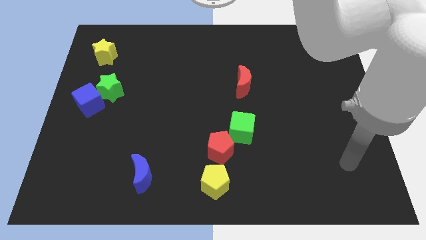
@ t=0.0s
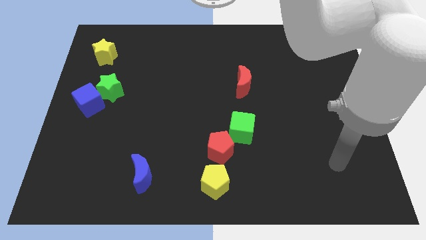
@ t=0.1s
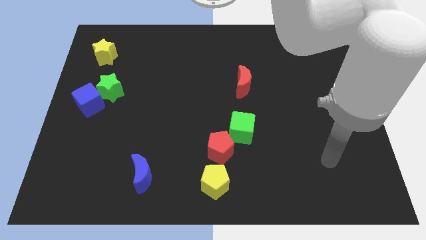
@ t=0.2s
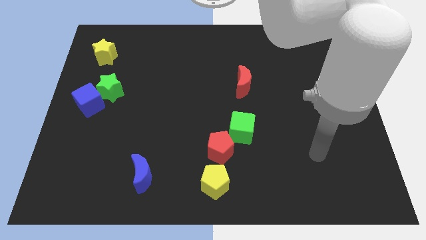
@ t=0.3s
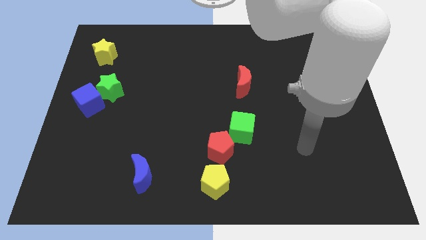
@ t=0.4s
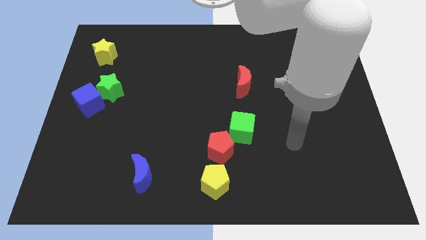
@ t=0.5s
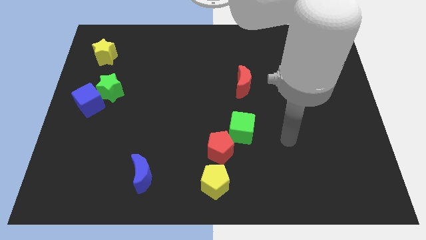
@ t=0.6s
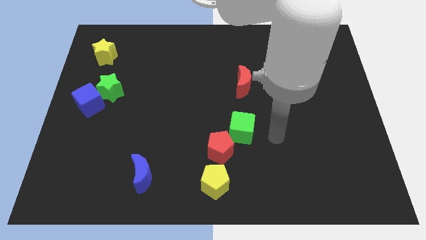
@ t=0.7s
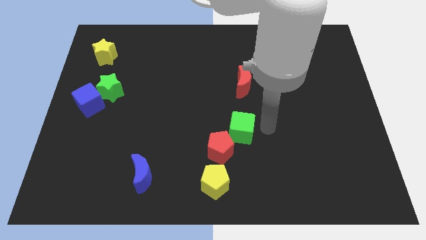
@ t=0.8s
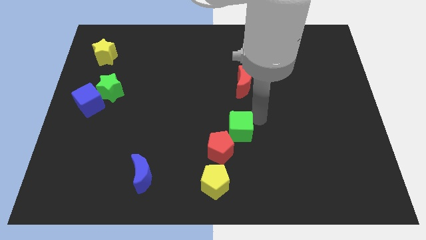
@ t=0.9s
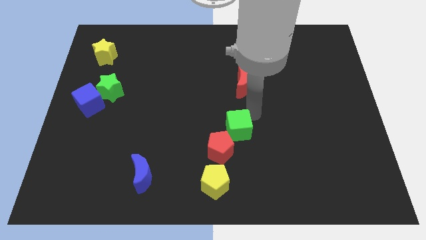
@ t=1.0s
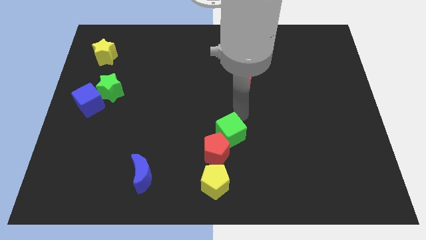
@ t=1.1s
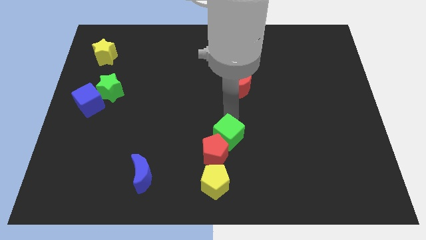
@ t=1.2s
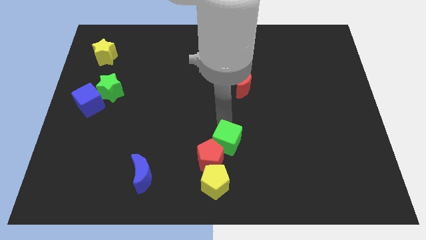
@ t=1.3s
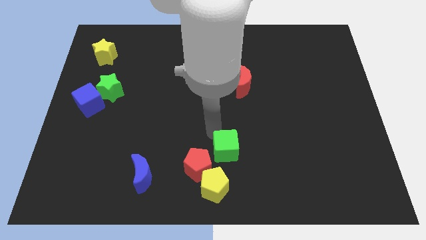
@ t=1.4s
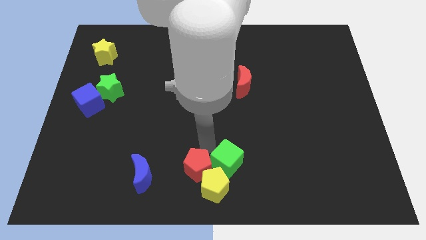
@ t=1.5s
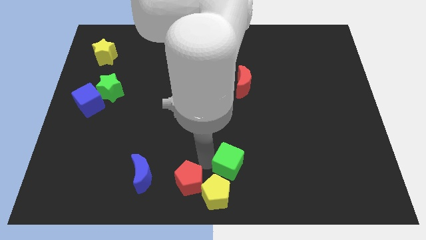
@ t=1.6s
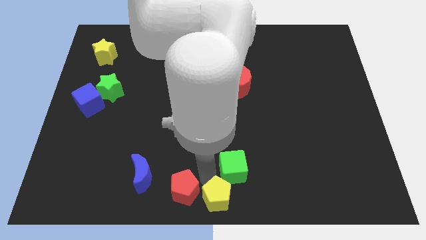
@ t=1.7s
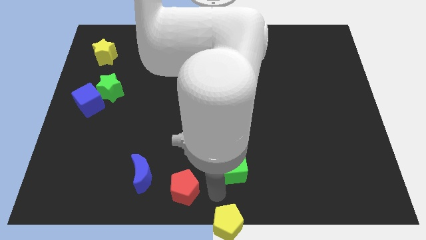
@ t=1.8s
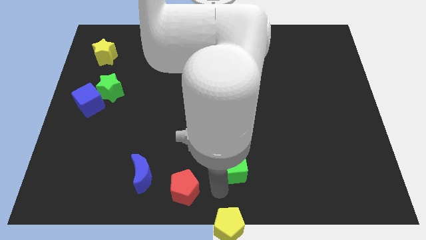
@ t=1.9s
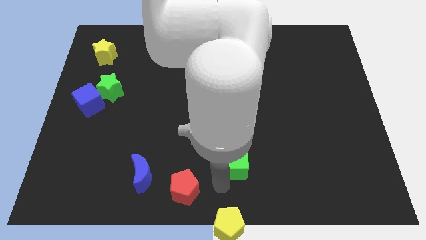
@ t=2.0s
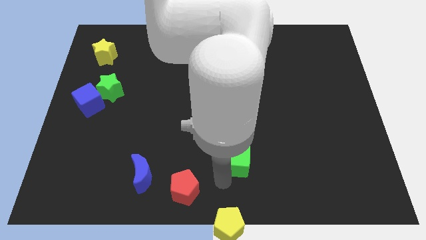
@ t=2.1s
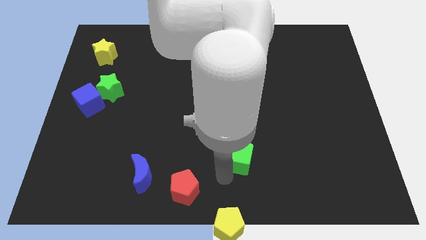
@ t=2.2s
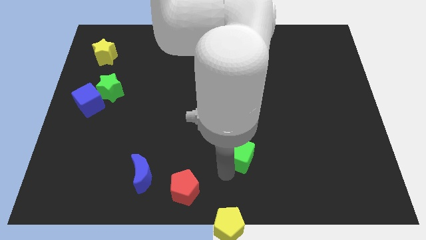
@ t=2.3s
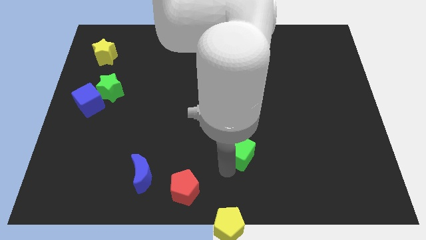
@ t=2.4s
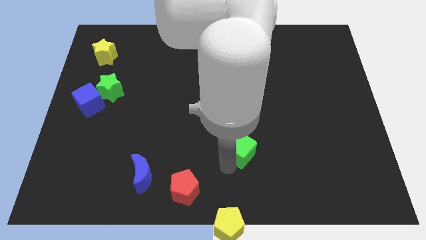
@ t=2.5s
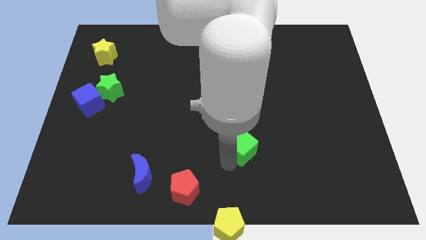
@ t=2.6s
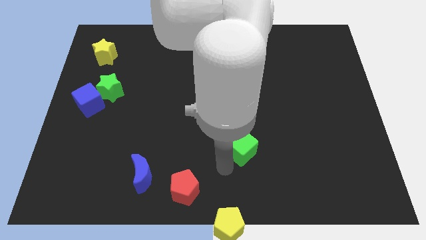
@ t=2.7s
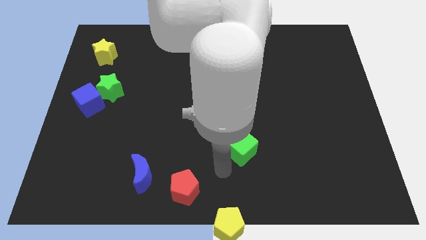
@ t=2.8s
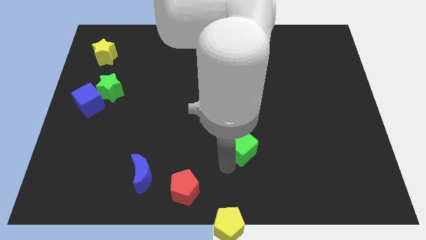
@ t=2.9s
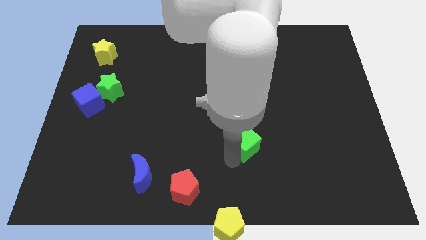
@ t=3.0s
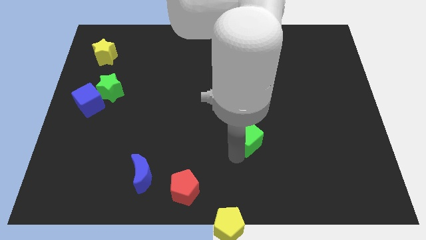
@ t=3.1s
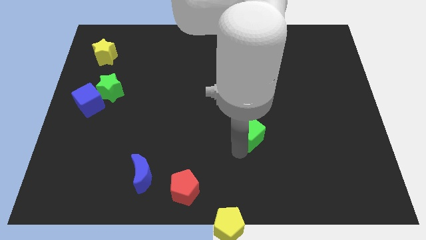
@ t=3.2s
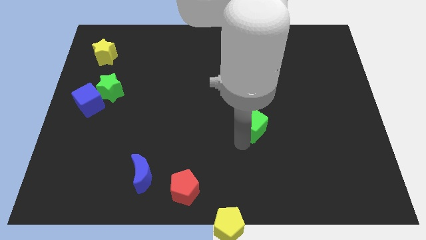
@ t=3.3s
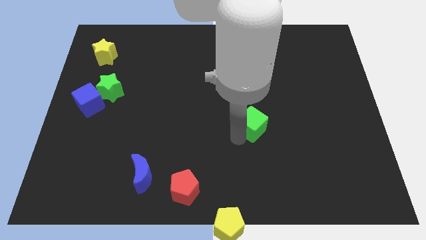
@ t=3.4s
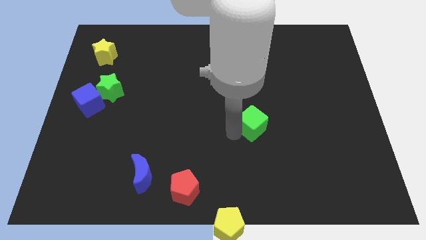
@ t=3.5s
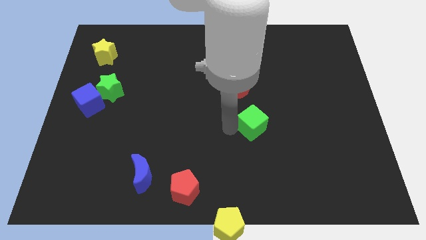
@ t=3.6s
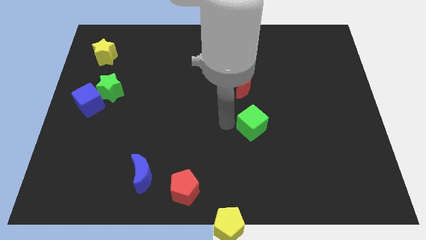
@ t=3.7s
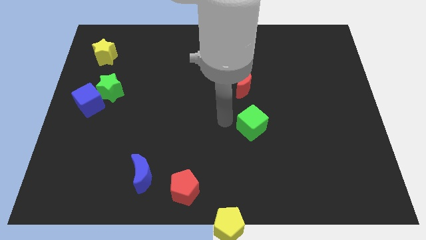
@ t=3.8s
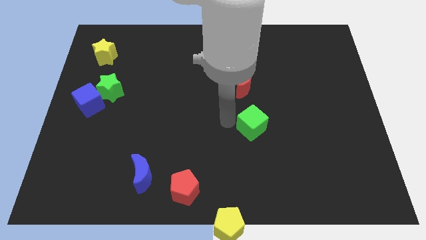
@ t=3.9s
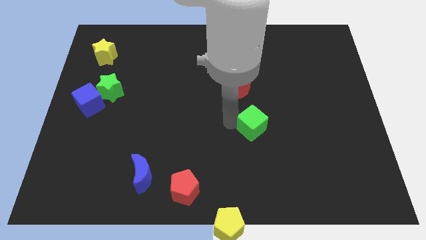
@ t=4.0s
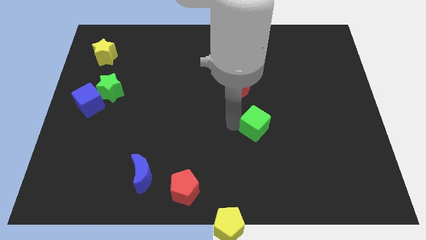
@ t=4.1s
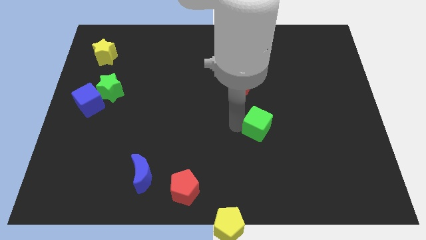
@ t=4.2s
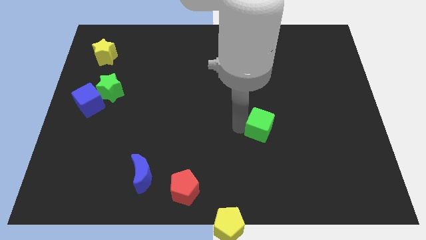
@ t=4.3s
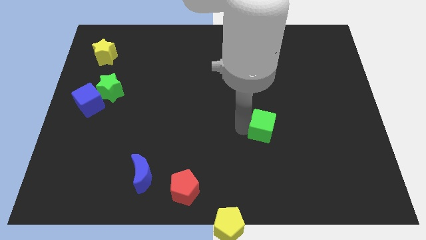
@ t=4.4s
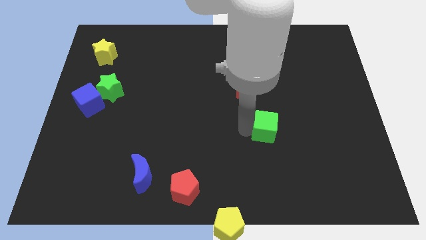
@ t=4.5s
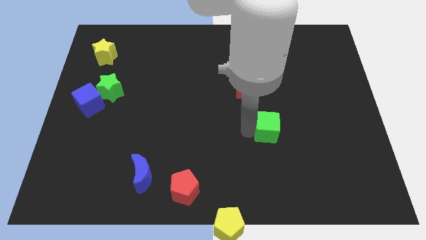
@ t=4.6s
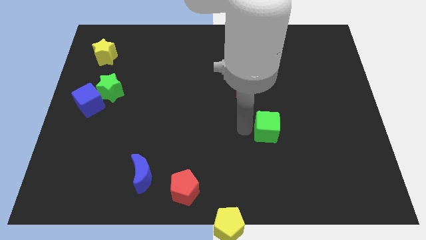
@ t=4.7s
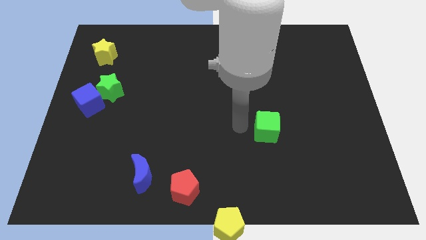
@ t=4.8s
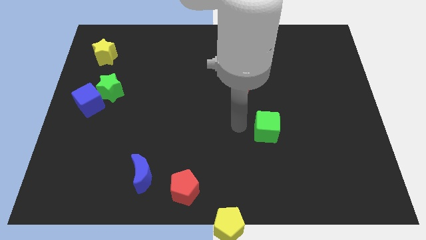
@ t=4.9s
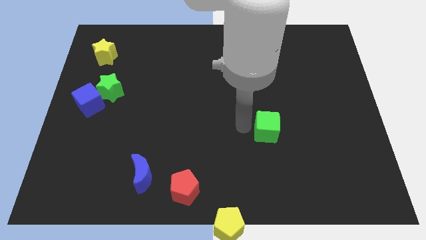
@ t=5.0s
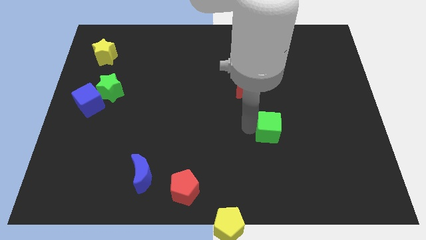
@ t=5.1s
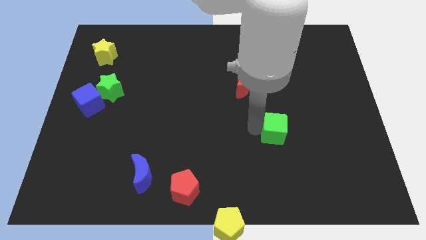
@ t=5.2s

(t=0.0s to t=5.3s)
slightly slide the green cube right

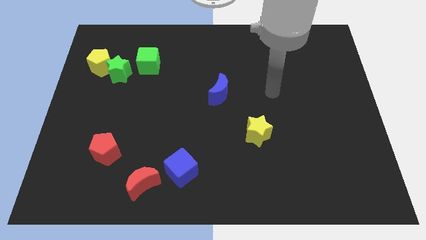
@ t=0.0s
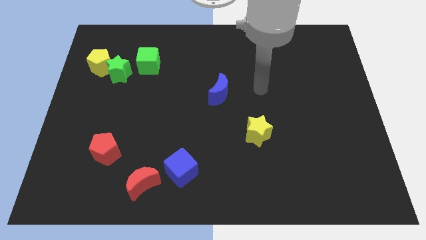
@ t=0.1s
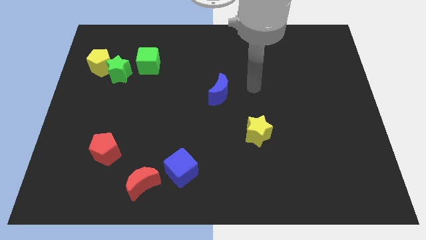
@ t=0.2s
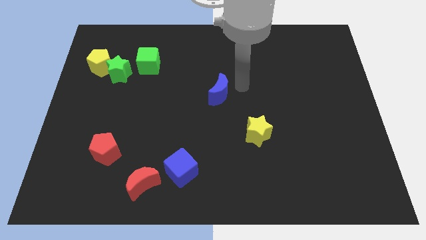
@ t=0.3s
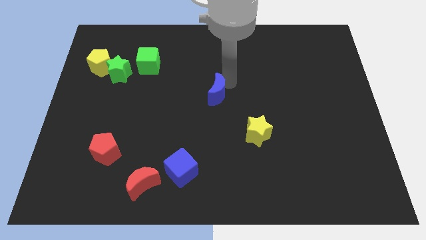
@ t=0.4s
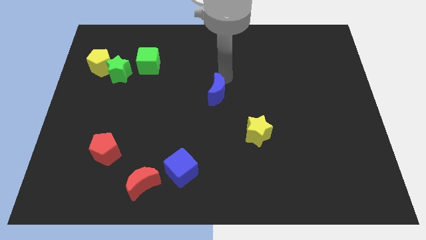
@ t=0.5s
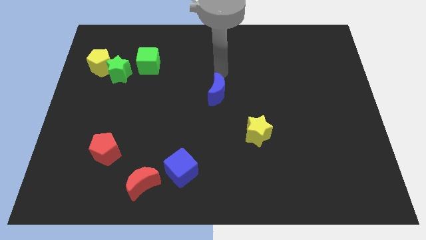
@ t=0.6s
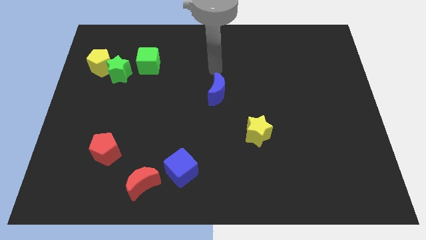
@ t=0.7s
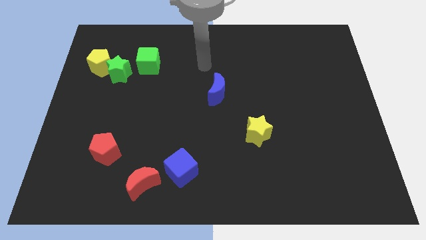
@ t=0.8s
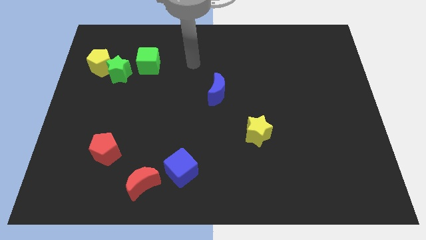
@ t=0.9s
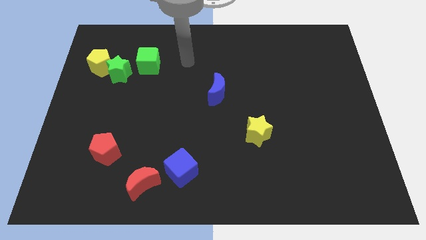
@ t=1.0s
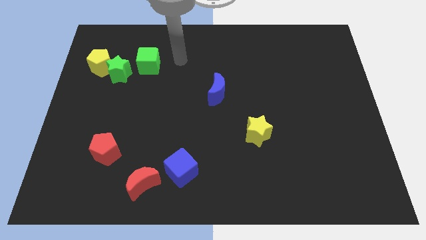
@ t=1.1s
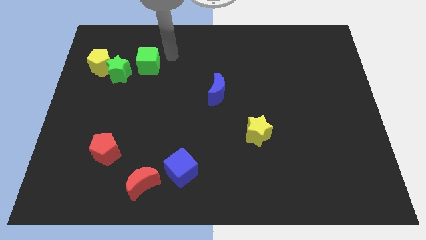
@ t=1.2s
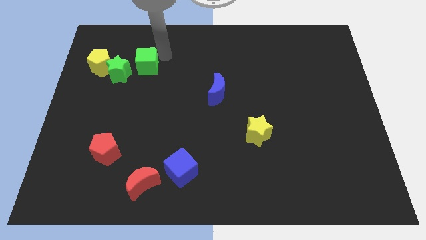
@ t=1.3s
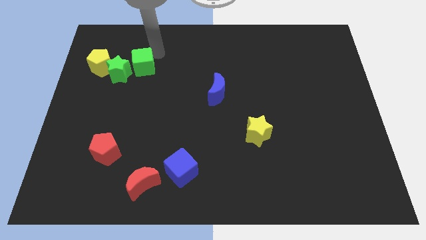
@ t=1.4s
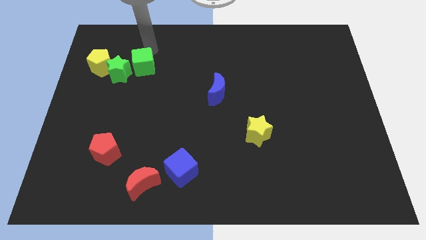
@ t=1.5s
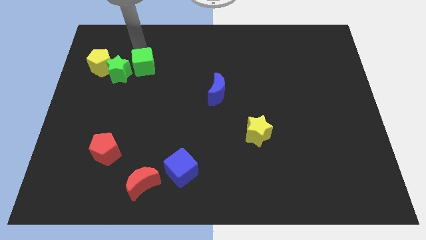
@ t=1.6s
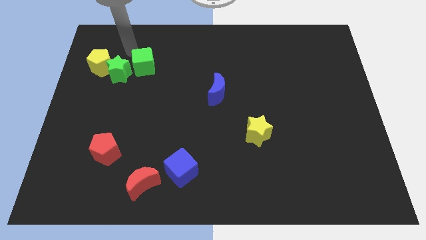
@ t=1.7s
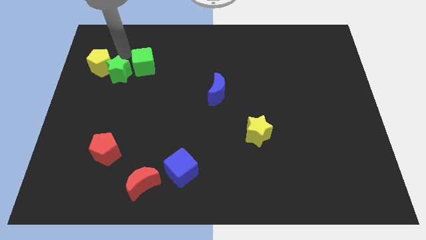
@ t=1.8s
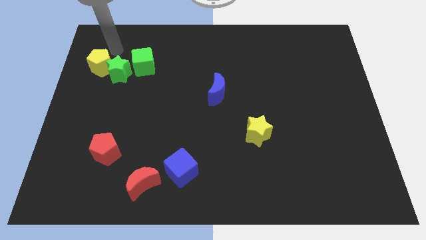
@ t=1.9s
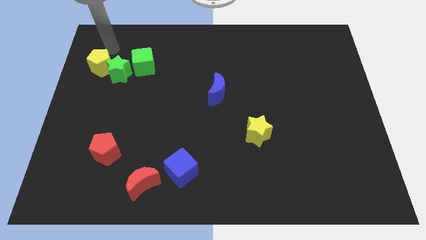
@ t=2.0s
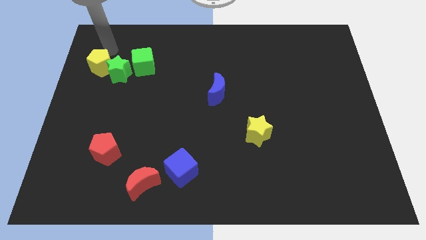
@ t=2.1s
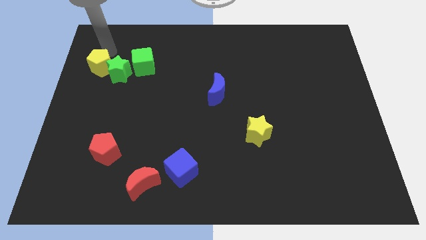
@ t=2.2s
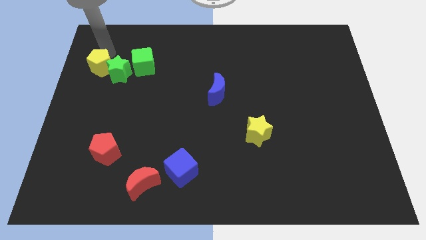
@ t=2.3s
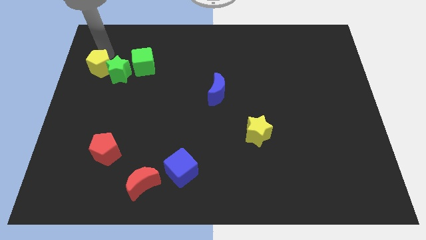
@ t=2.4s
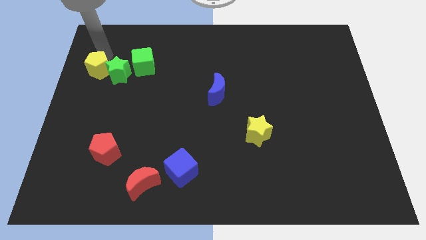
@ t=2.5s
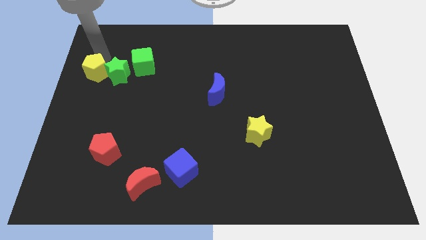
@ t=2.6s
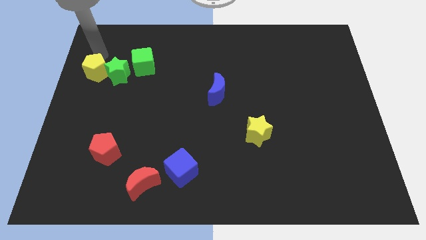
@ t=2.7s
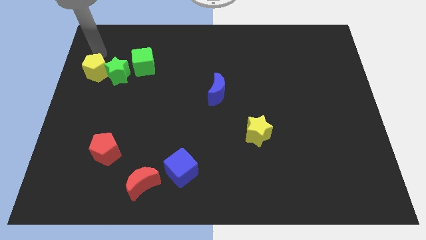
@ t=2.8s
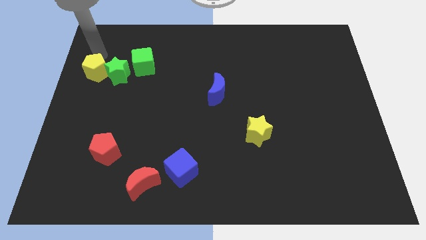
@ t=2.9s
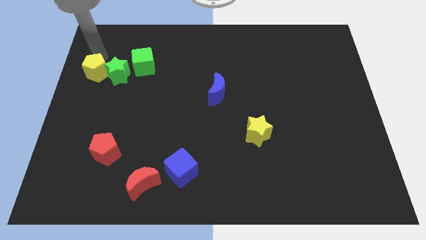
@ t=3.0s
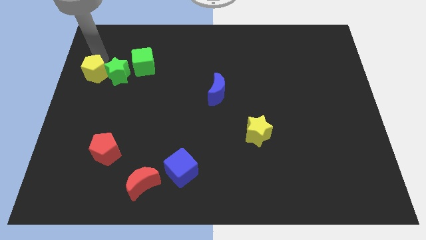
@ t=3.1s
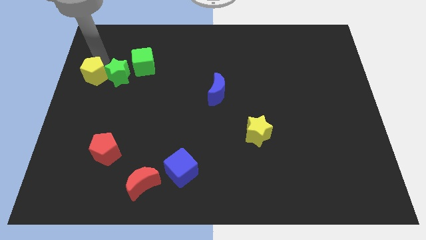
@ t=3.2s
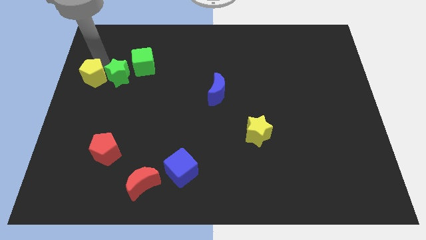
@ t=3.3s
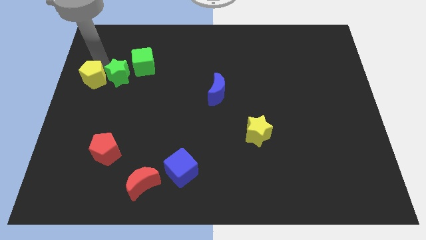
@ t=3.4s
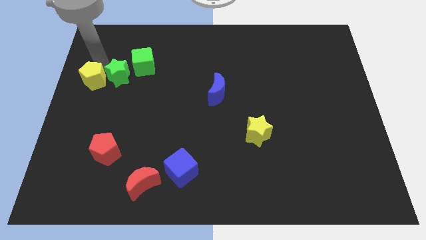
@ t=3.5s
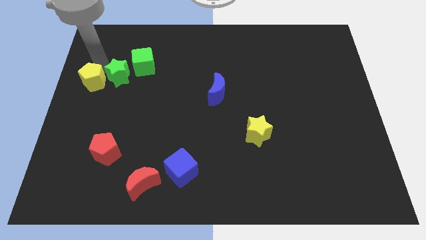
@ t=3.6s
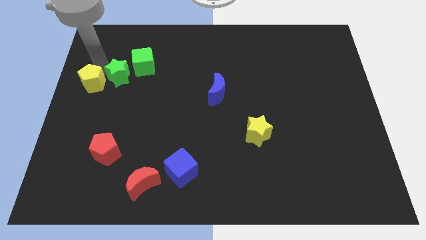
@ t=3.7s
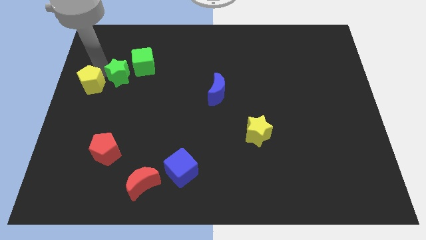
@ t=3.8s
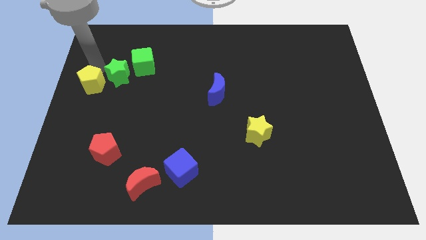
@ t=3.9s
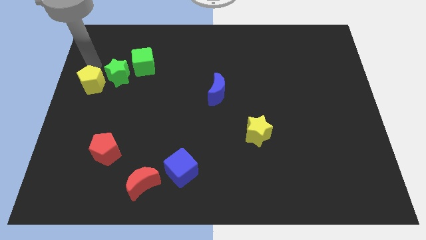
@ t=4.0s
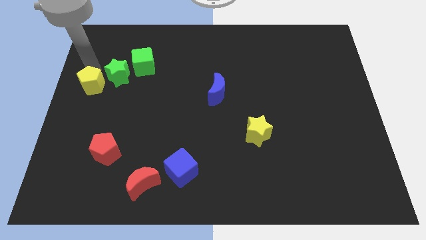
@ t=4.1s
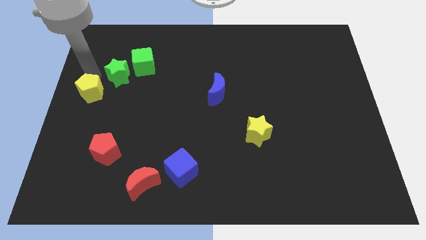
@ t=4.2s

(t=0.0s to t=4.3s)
slightly move the yellow pentagon down
